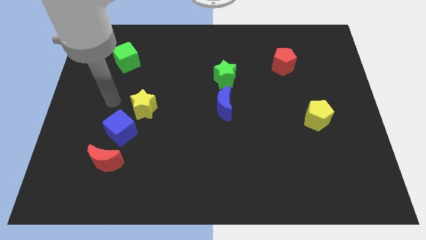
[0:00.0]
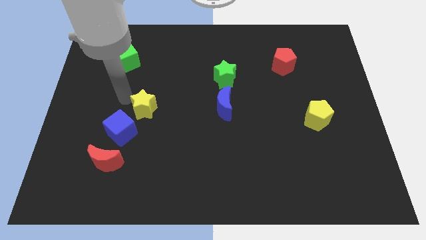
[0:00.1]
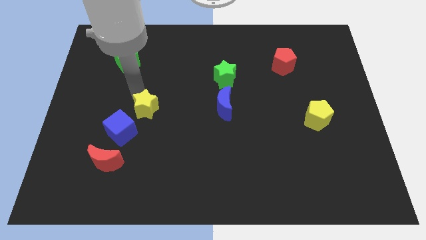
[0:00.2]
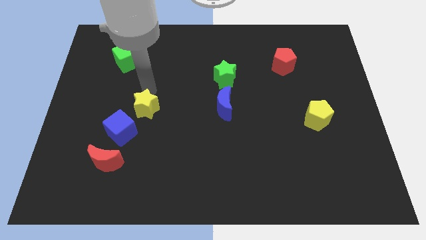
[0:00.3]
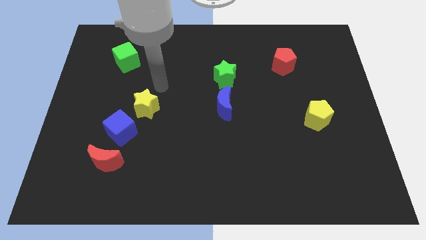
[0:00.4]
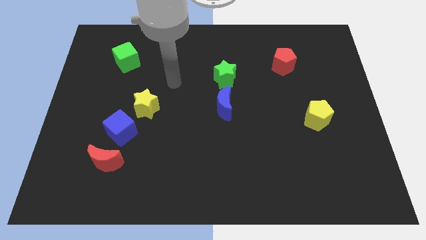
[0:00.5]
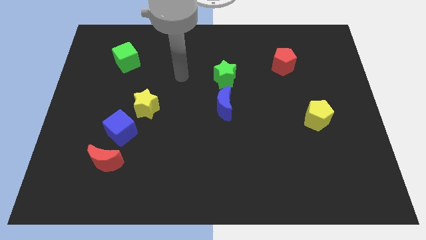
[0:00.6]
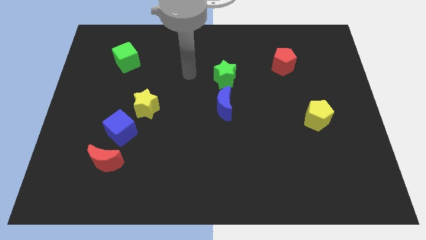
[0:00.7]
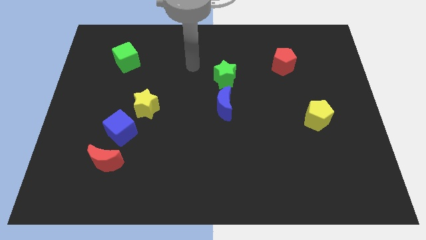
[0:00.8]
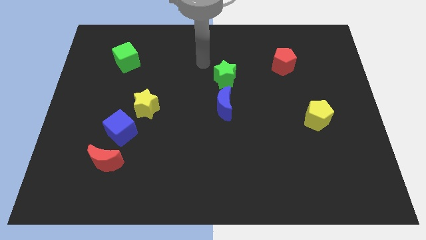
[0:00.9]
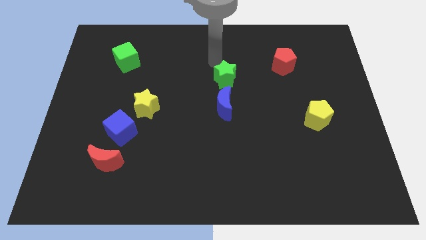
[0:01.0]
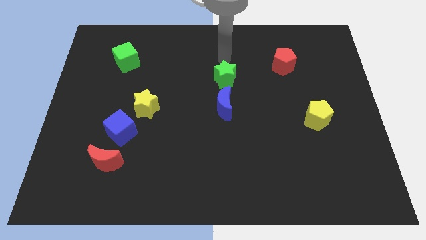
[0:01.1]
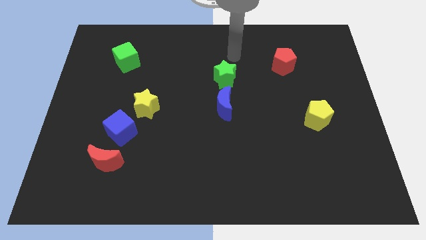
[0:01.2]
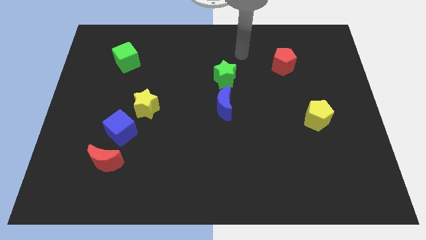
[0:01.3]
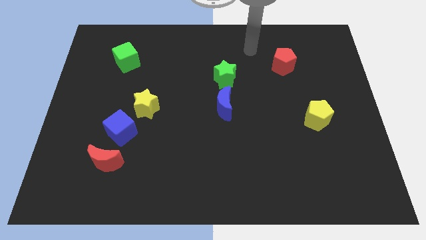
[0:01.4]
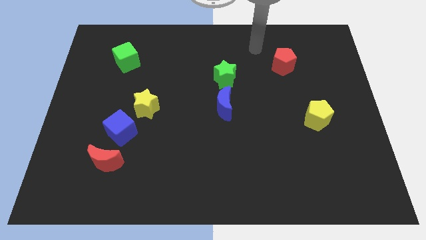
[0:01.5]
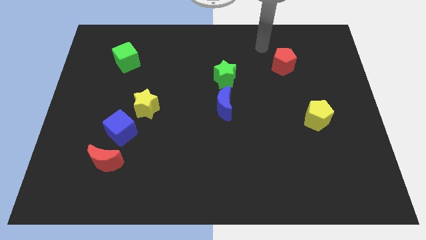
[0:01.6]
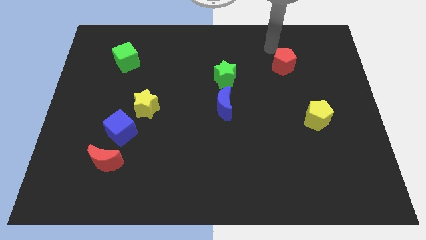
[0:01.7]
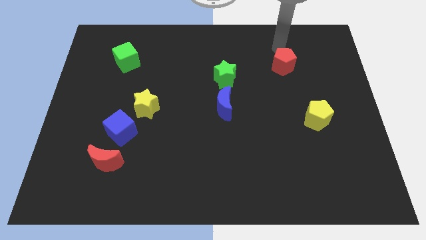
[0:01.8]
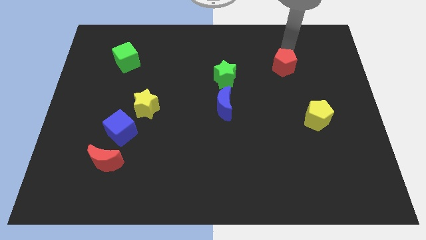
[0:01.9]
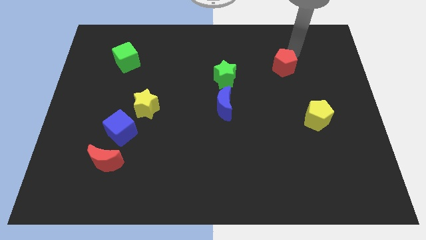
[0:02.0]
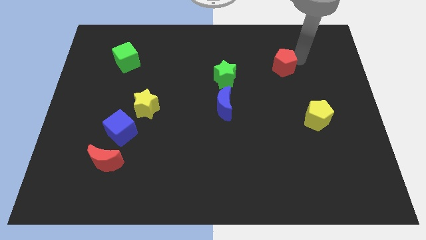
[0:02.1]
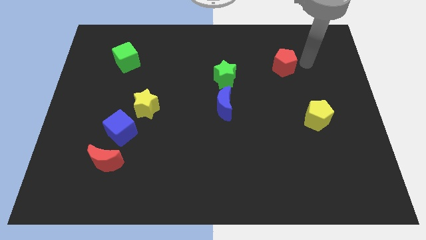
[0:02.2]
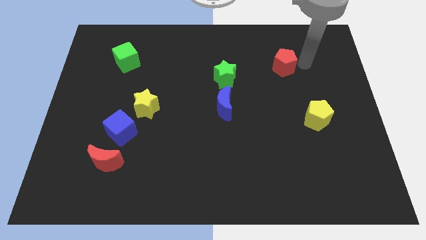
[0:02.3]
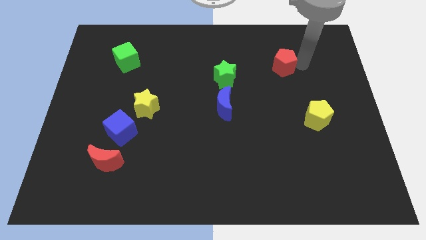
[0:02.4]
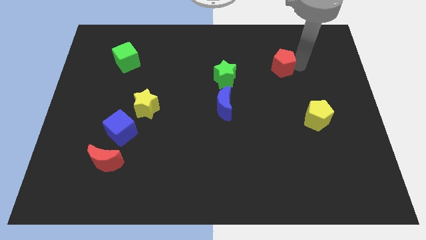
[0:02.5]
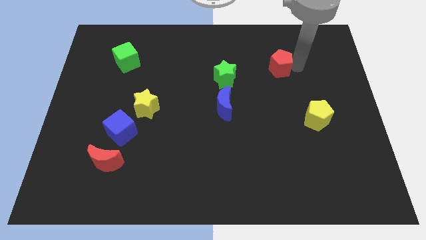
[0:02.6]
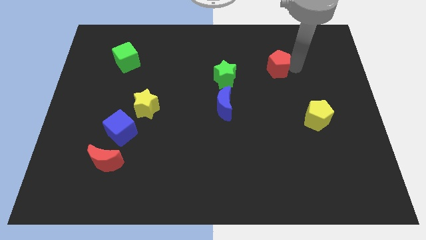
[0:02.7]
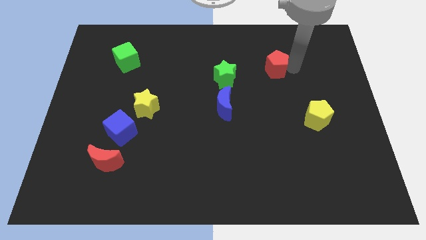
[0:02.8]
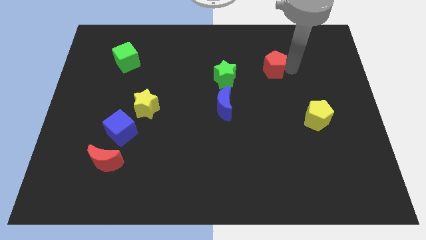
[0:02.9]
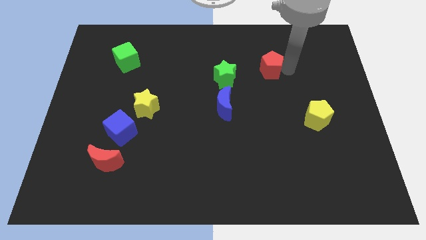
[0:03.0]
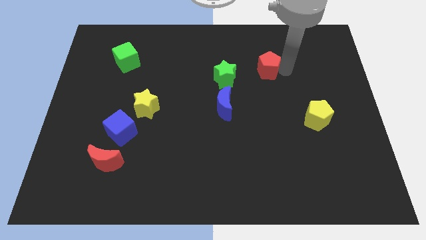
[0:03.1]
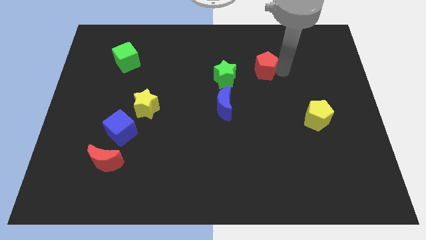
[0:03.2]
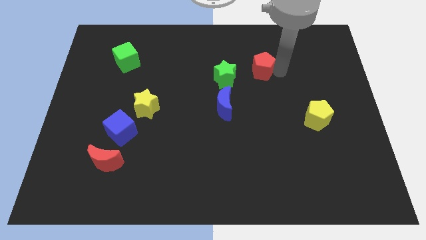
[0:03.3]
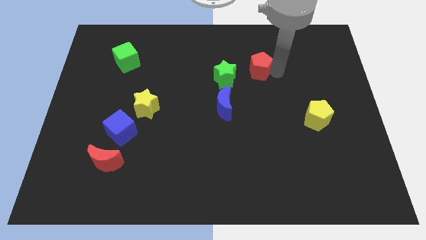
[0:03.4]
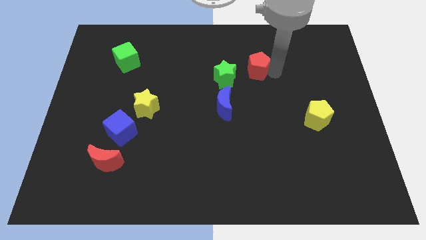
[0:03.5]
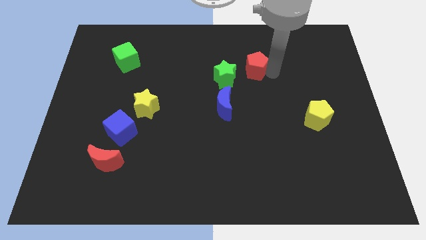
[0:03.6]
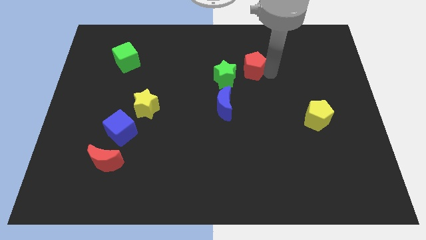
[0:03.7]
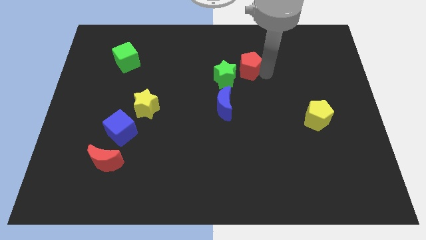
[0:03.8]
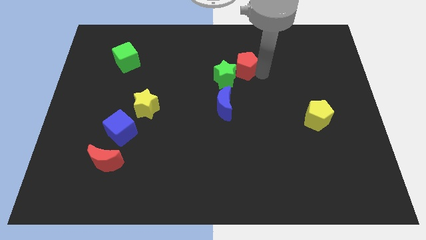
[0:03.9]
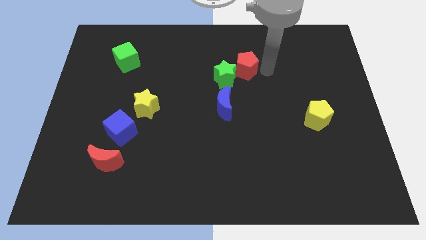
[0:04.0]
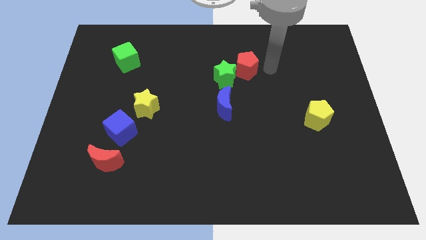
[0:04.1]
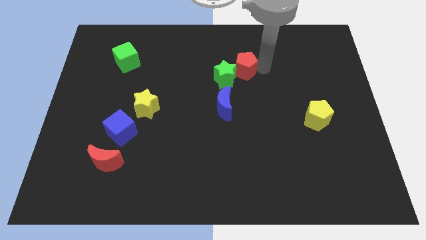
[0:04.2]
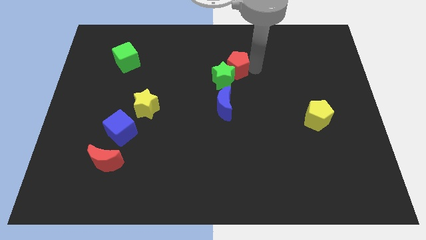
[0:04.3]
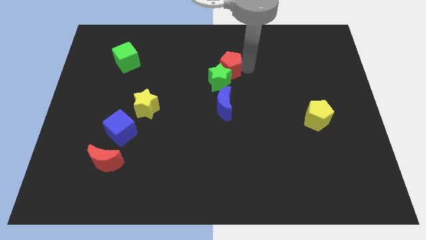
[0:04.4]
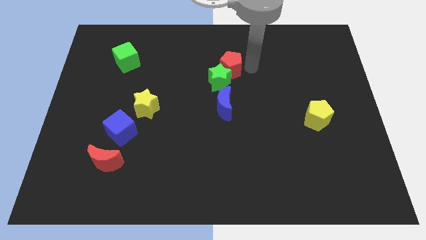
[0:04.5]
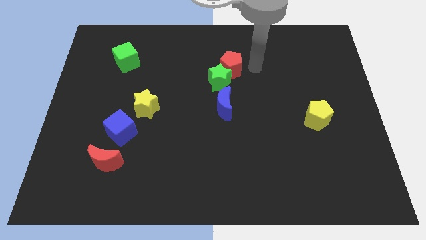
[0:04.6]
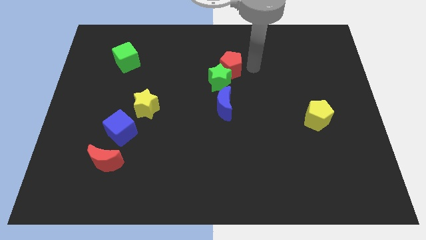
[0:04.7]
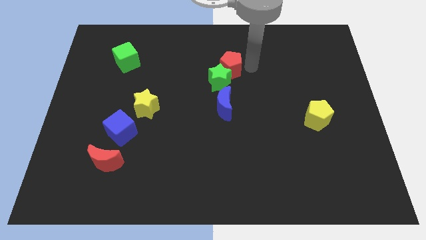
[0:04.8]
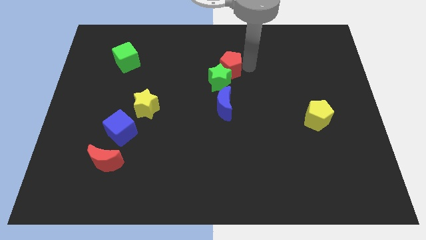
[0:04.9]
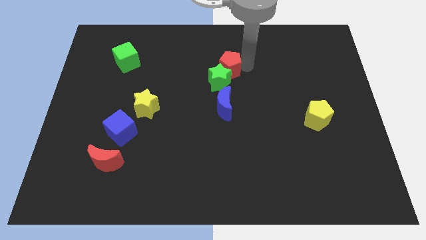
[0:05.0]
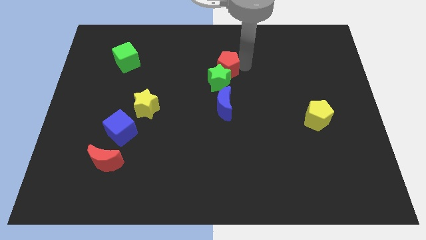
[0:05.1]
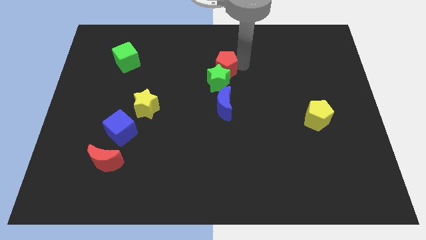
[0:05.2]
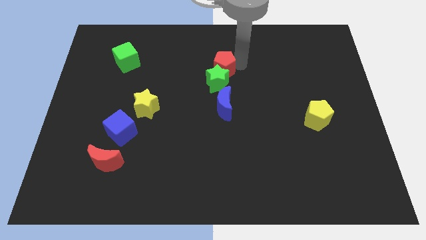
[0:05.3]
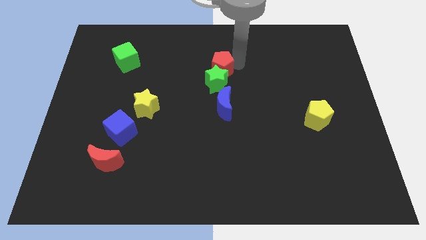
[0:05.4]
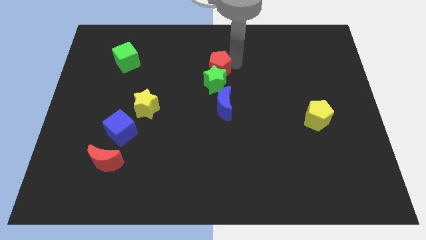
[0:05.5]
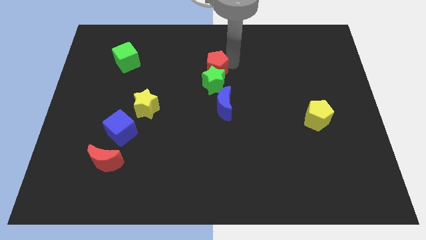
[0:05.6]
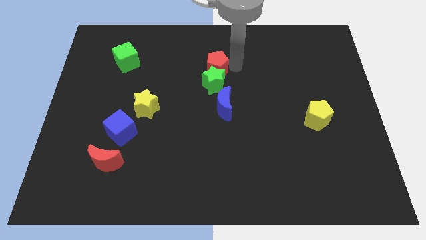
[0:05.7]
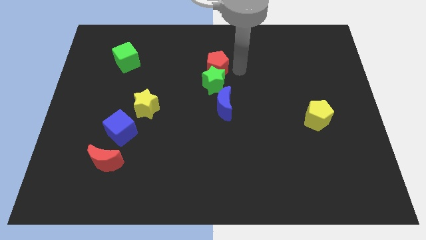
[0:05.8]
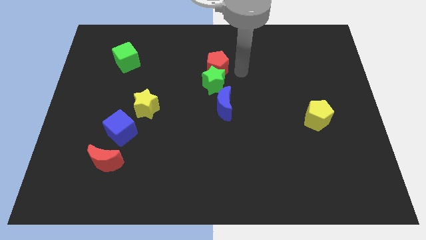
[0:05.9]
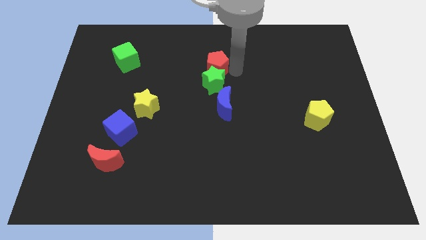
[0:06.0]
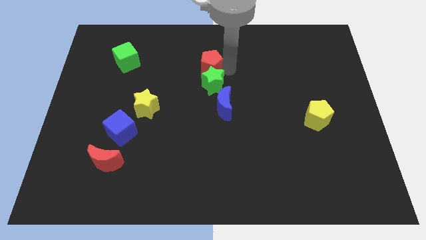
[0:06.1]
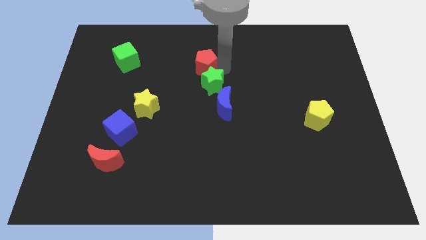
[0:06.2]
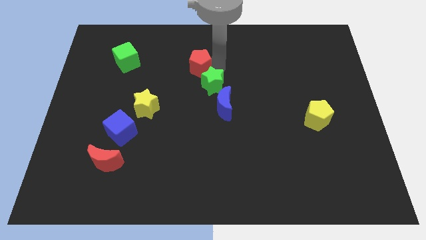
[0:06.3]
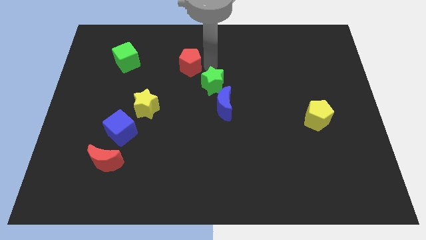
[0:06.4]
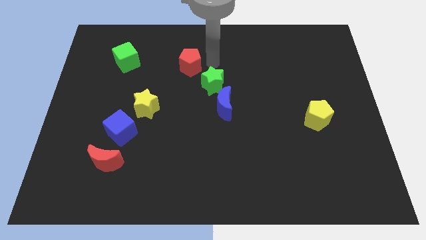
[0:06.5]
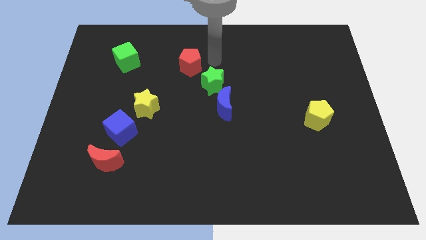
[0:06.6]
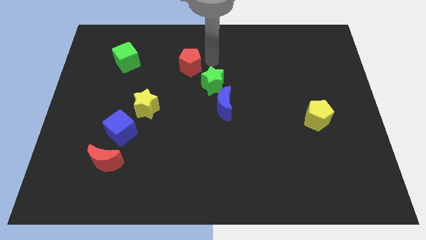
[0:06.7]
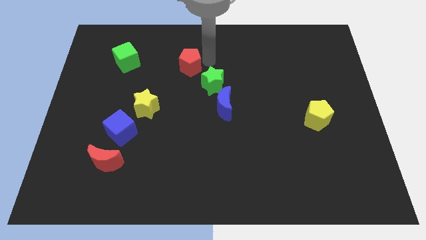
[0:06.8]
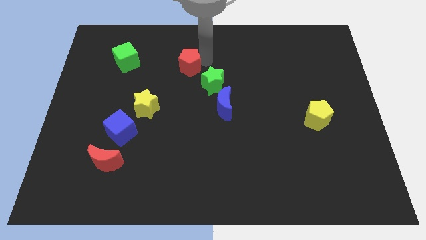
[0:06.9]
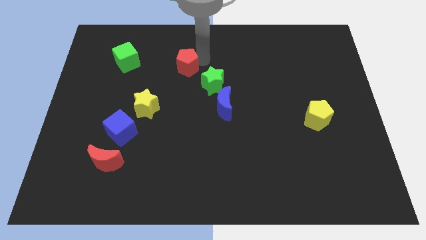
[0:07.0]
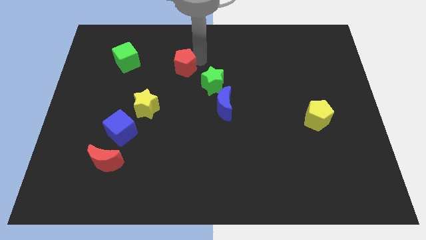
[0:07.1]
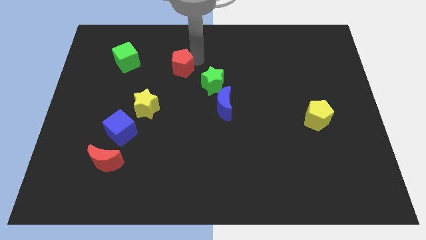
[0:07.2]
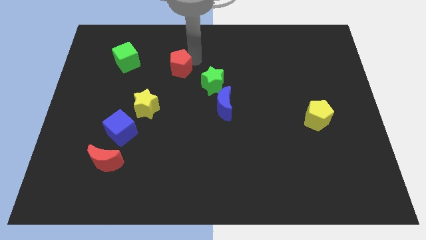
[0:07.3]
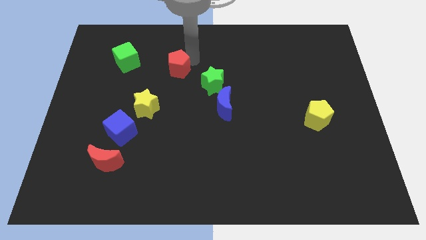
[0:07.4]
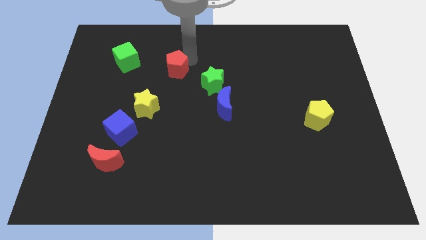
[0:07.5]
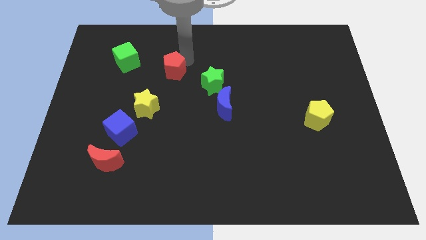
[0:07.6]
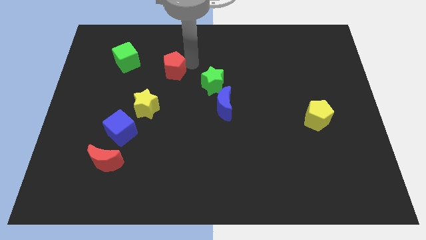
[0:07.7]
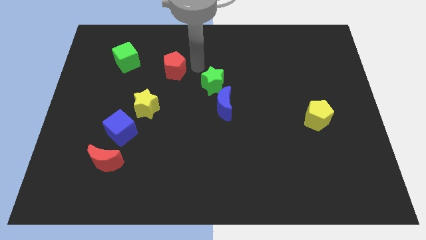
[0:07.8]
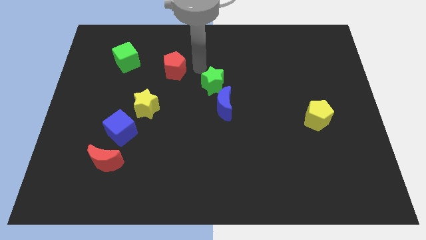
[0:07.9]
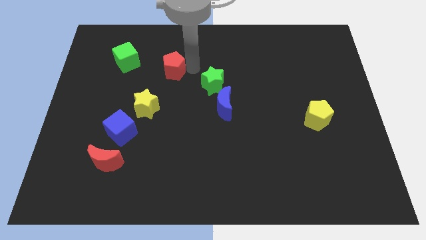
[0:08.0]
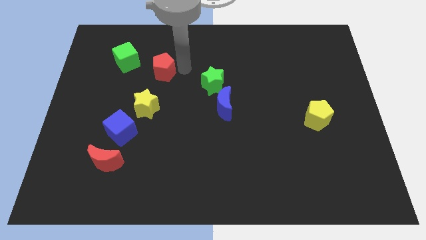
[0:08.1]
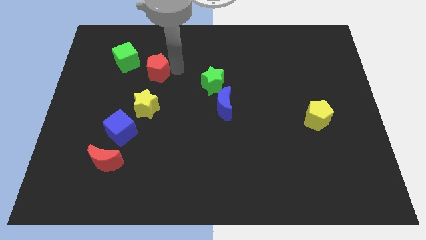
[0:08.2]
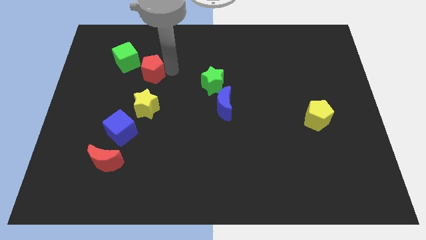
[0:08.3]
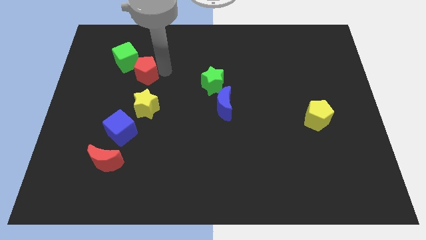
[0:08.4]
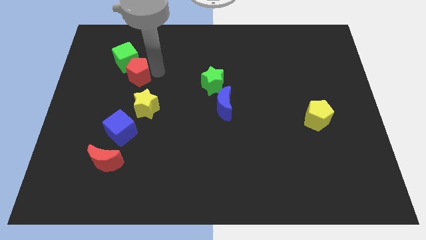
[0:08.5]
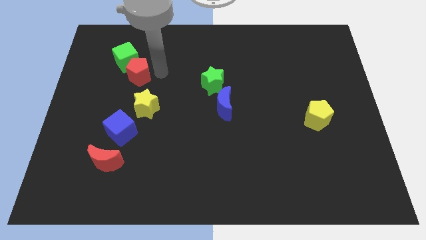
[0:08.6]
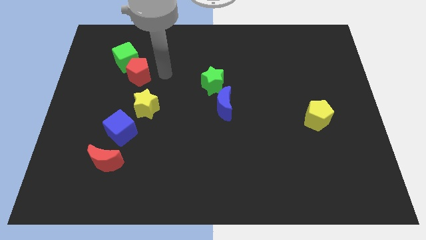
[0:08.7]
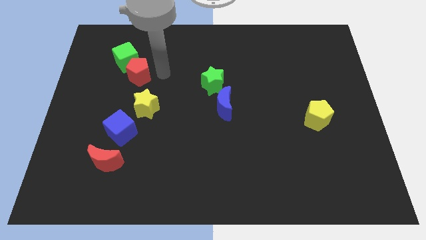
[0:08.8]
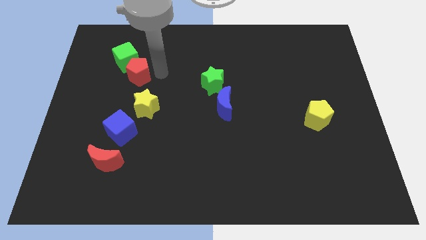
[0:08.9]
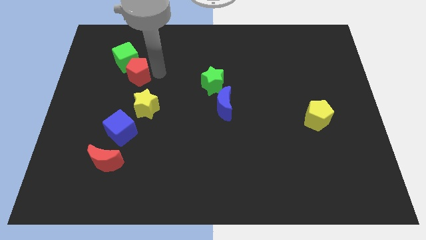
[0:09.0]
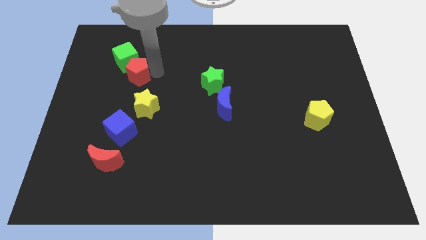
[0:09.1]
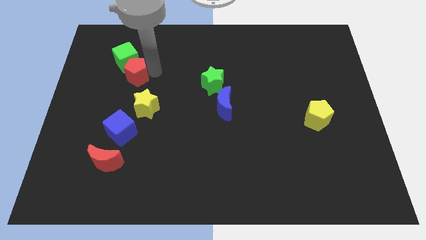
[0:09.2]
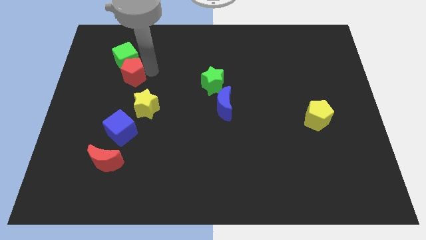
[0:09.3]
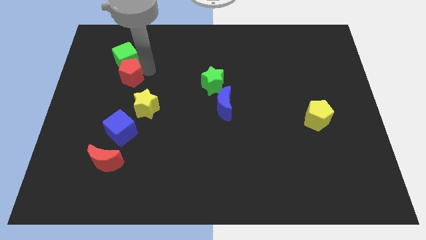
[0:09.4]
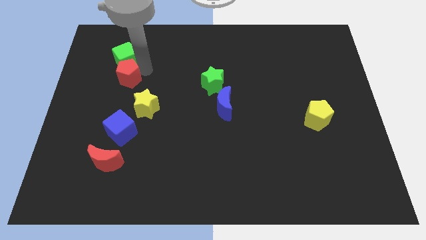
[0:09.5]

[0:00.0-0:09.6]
move the red pentagon to the bottom left of the green cube
